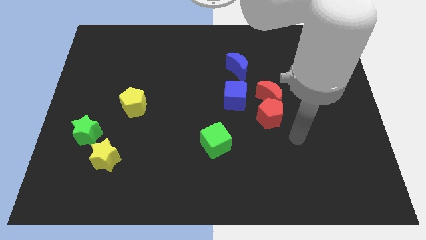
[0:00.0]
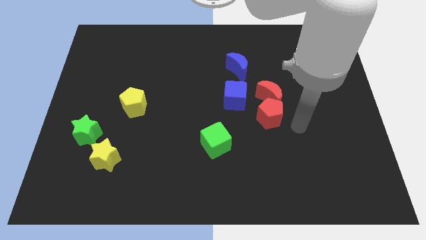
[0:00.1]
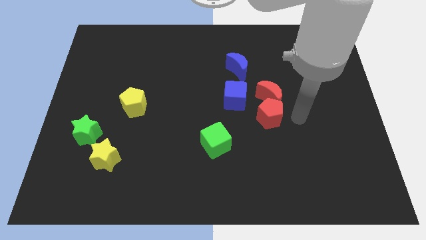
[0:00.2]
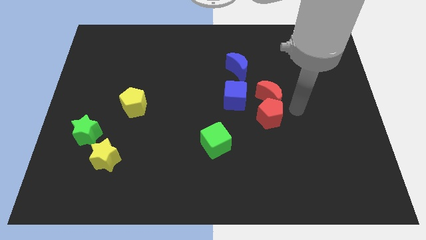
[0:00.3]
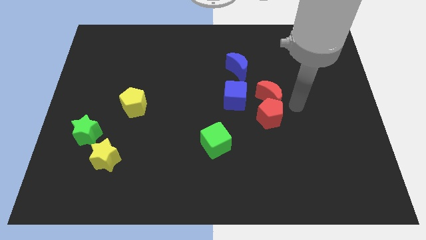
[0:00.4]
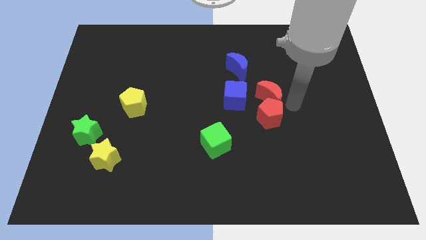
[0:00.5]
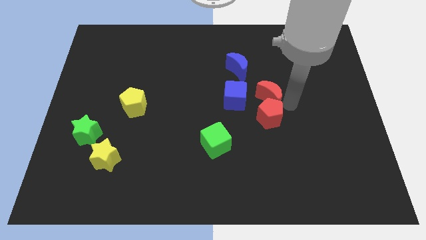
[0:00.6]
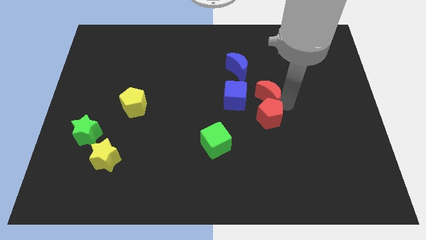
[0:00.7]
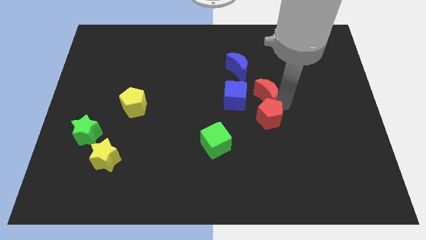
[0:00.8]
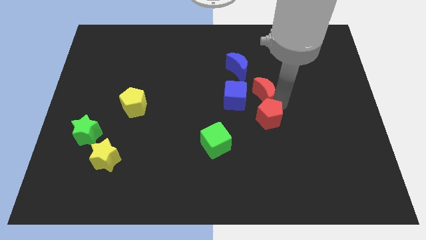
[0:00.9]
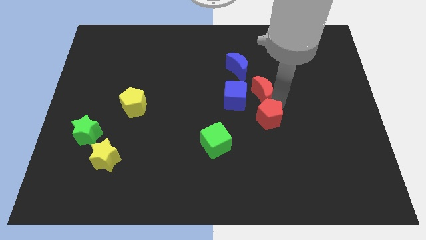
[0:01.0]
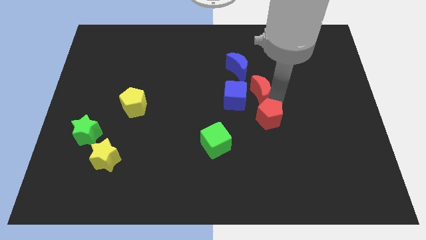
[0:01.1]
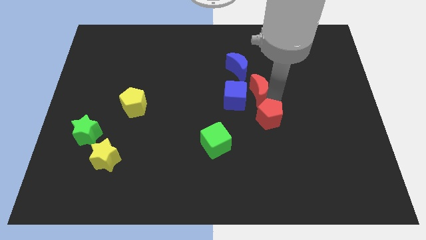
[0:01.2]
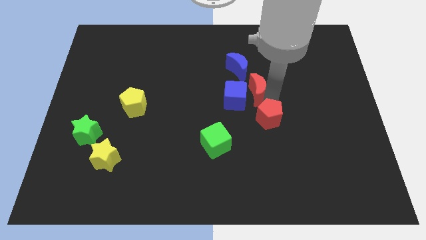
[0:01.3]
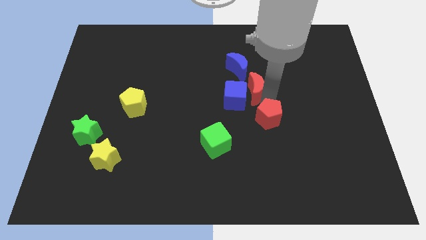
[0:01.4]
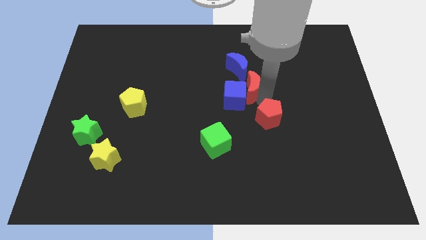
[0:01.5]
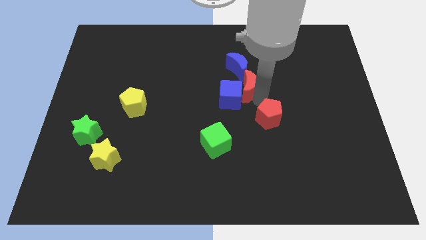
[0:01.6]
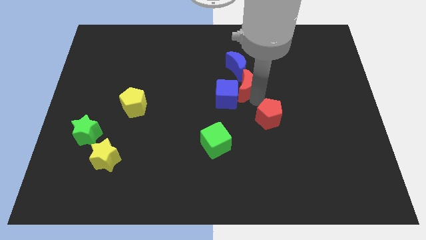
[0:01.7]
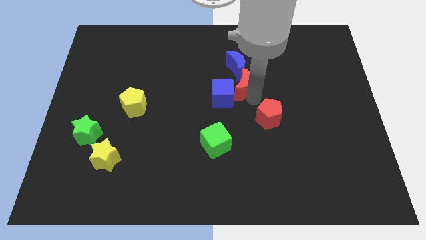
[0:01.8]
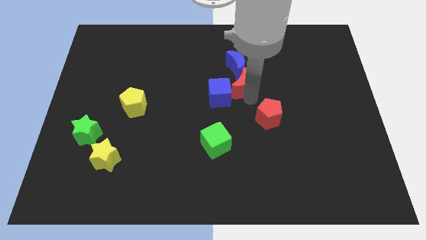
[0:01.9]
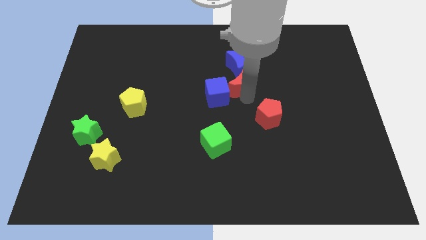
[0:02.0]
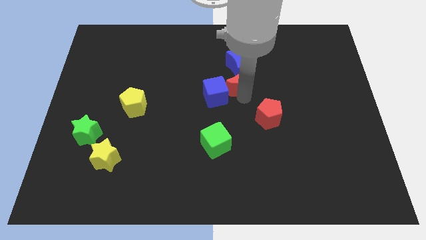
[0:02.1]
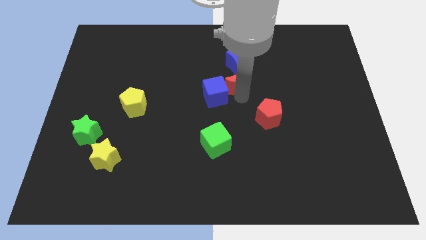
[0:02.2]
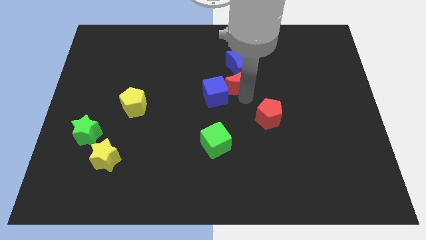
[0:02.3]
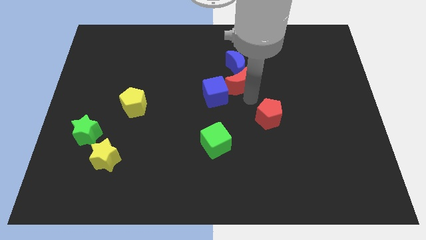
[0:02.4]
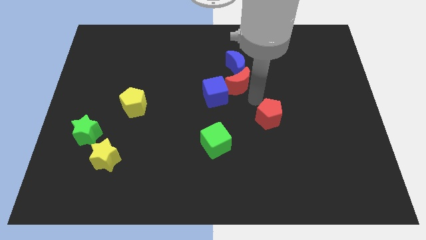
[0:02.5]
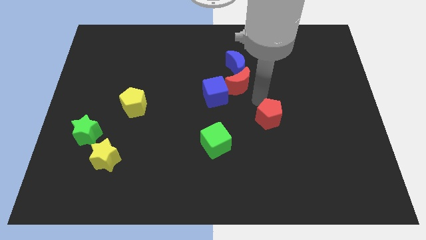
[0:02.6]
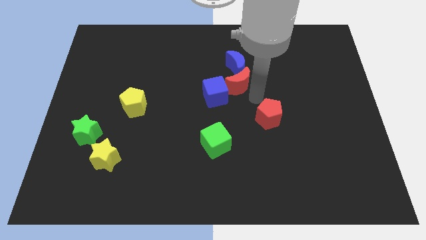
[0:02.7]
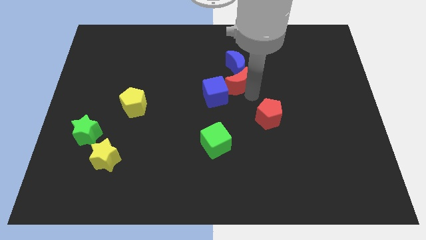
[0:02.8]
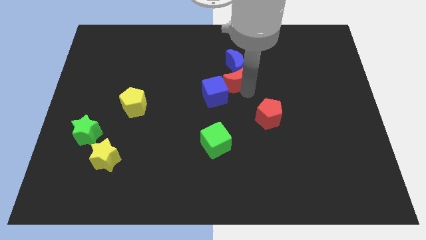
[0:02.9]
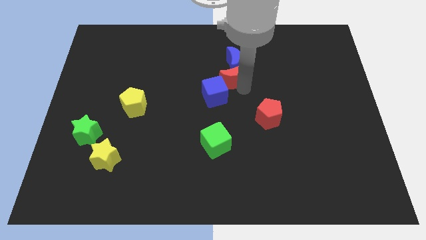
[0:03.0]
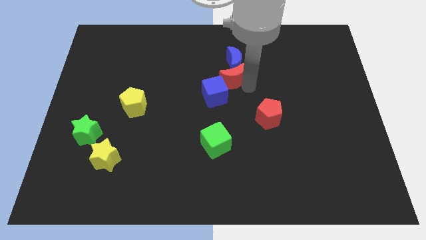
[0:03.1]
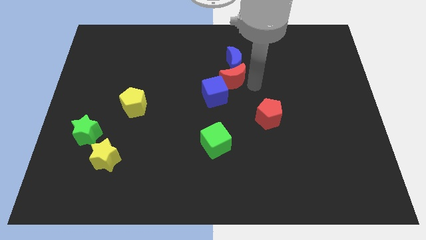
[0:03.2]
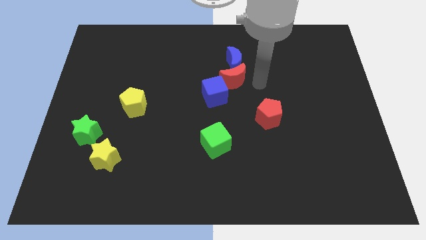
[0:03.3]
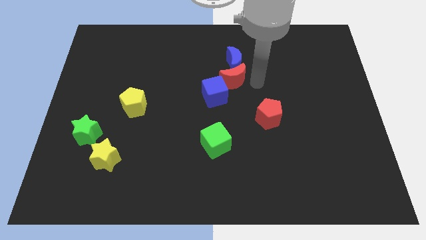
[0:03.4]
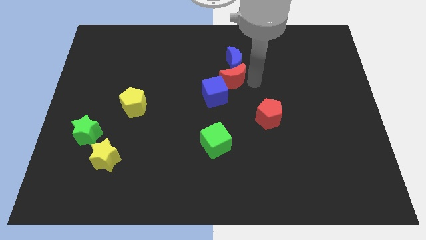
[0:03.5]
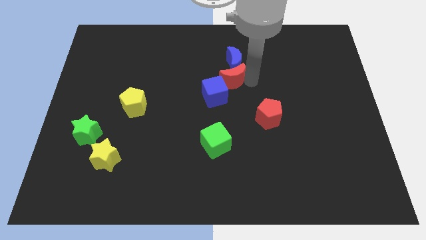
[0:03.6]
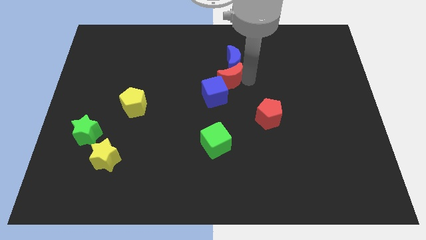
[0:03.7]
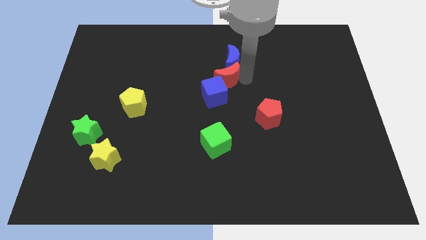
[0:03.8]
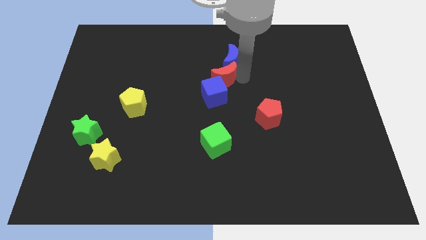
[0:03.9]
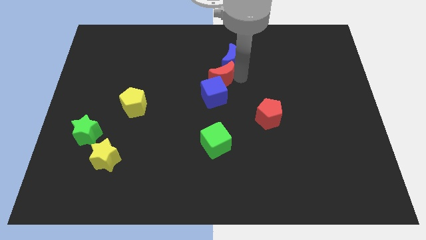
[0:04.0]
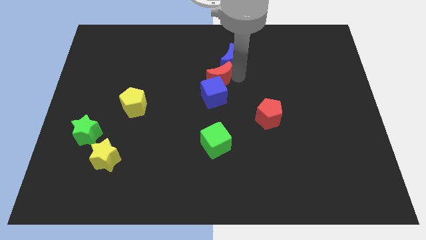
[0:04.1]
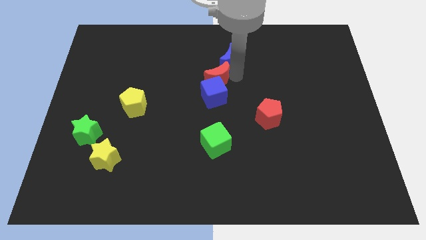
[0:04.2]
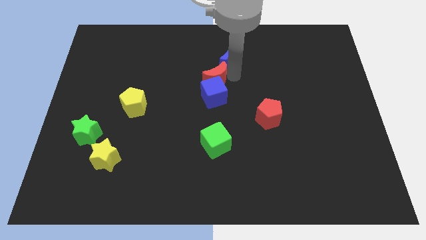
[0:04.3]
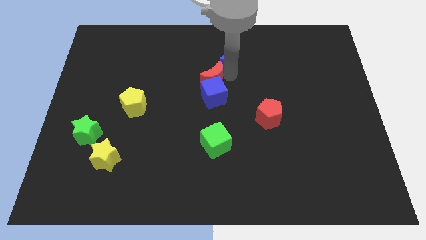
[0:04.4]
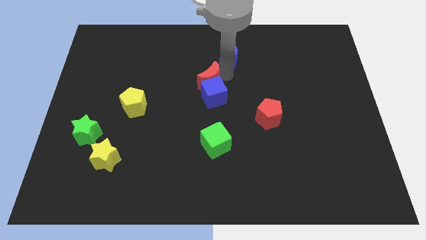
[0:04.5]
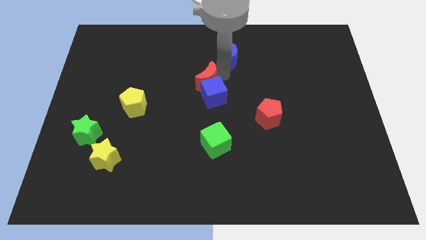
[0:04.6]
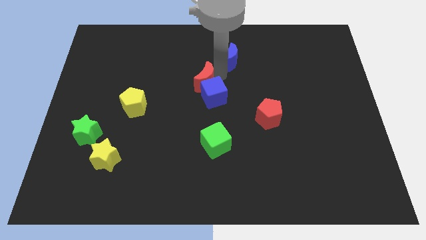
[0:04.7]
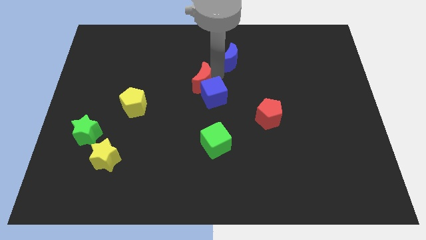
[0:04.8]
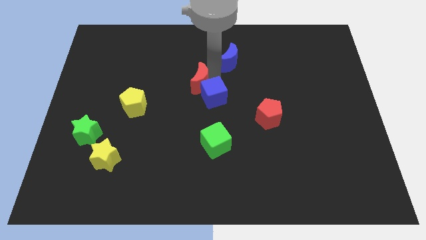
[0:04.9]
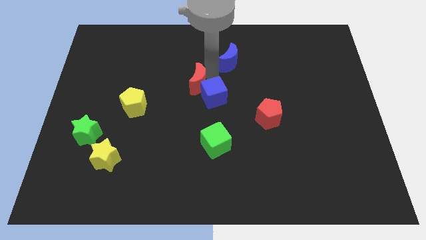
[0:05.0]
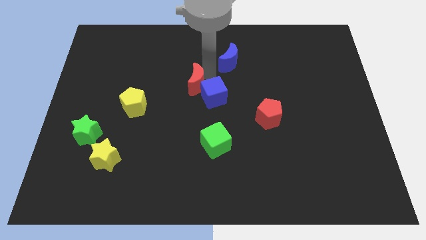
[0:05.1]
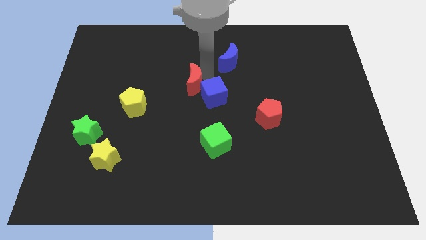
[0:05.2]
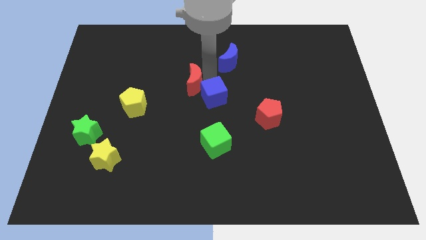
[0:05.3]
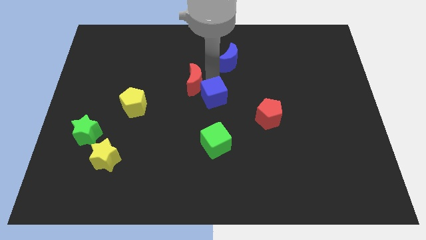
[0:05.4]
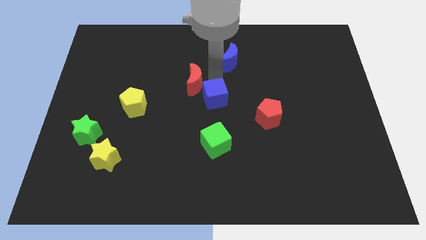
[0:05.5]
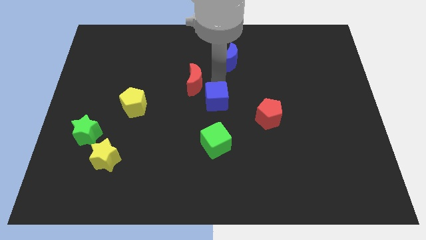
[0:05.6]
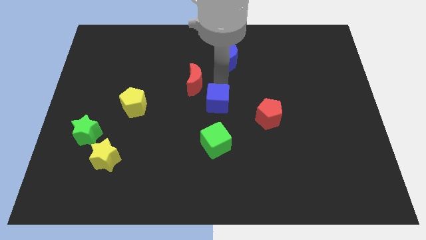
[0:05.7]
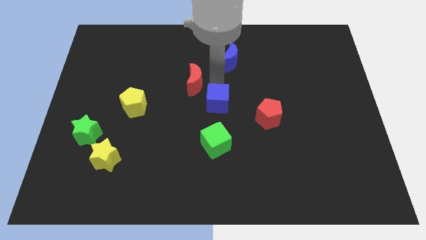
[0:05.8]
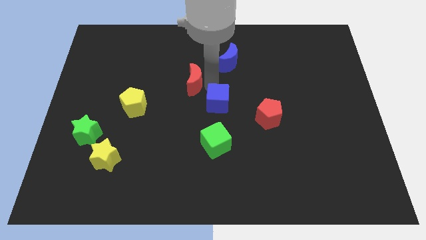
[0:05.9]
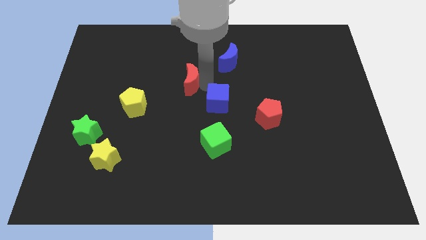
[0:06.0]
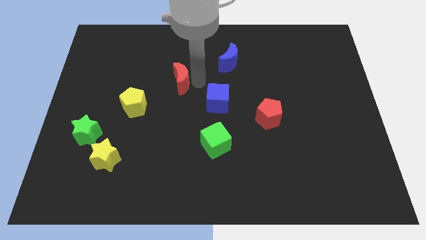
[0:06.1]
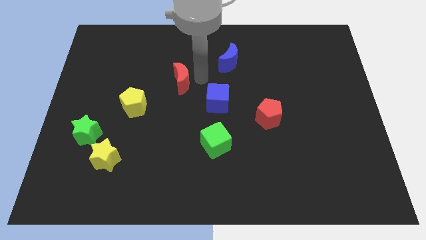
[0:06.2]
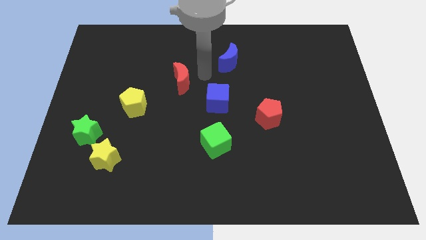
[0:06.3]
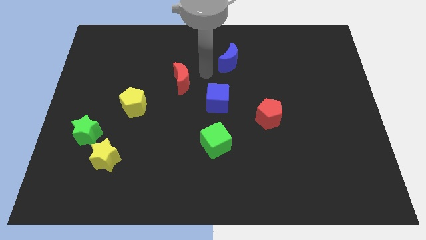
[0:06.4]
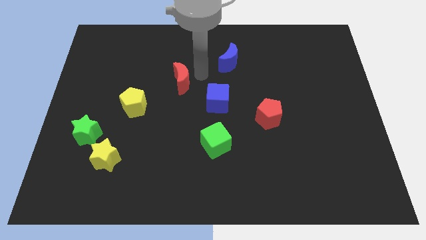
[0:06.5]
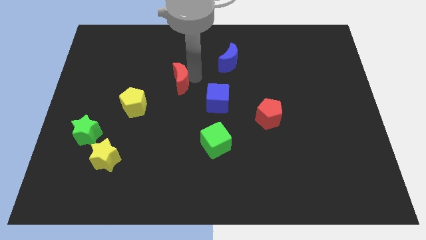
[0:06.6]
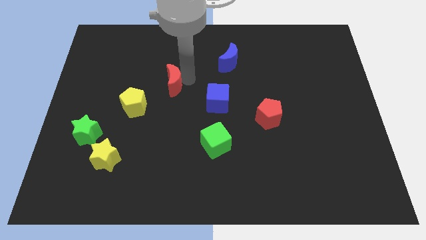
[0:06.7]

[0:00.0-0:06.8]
put the red moon to the top right side of the yellow pentagon
